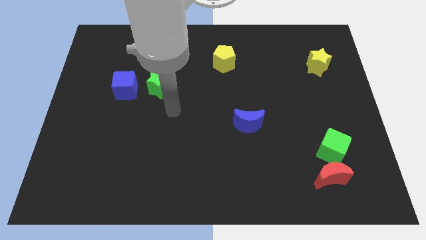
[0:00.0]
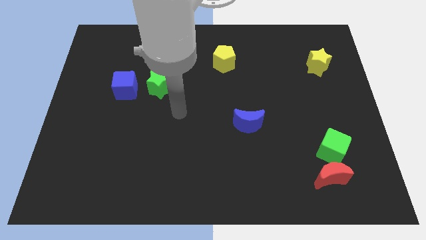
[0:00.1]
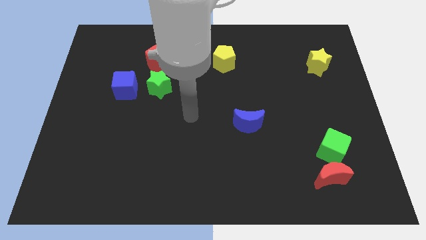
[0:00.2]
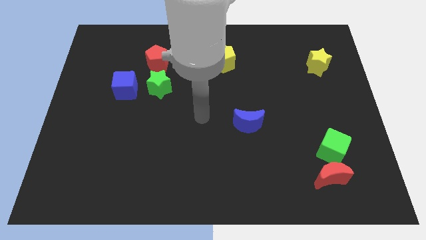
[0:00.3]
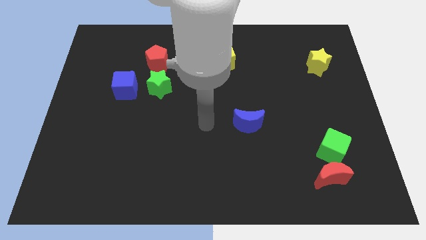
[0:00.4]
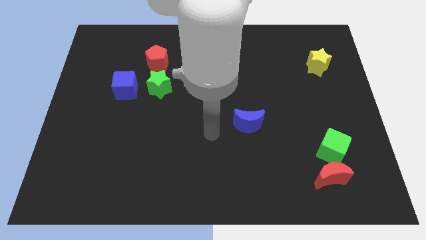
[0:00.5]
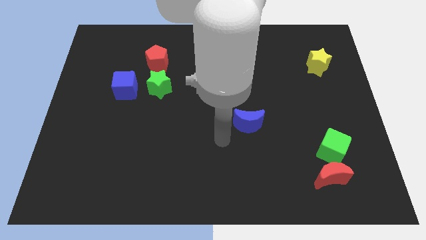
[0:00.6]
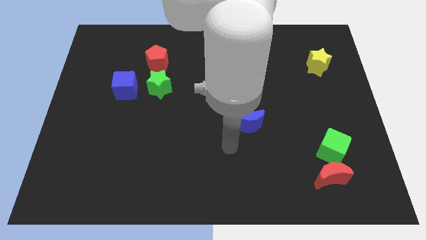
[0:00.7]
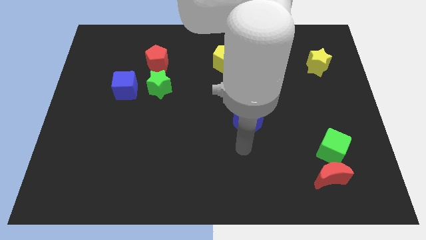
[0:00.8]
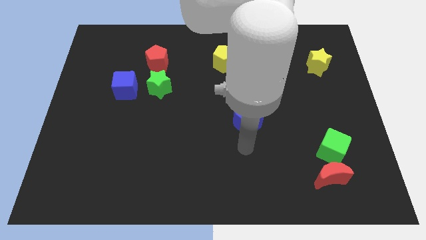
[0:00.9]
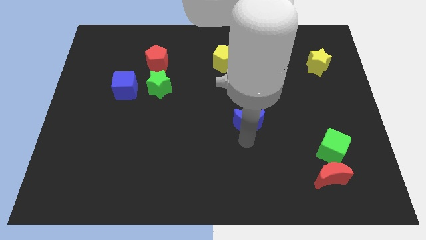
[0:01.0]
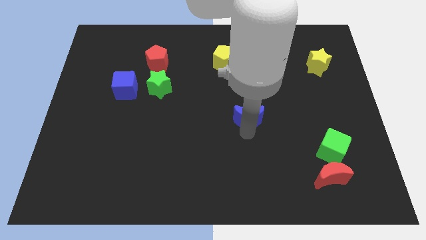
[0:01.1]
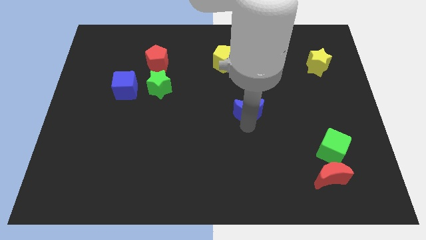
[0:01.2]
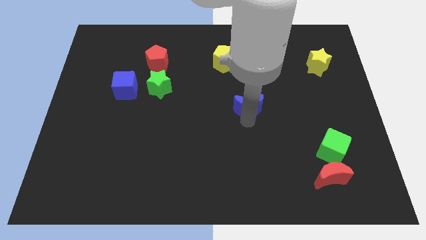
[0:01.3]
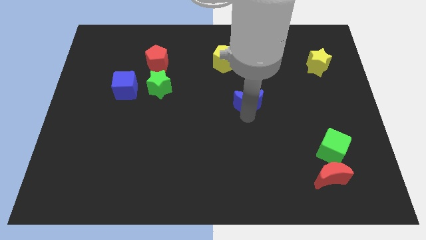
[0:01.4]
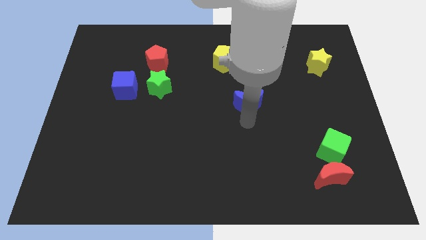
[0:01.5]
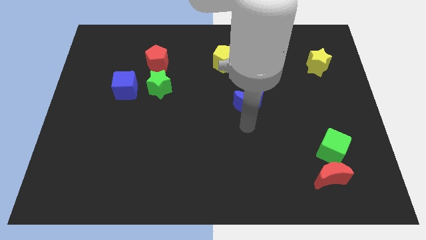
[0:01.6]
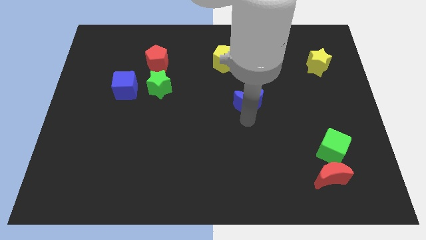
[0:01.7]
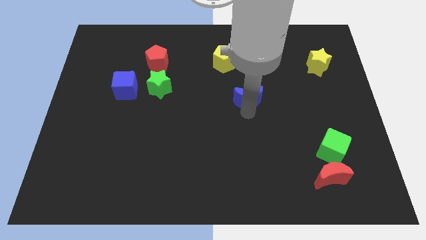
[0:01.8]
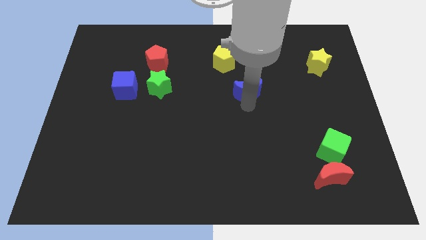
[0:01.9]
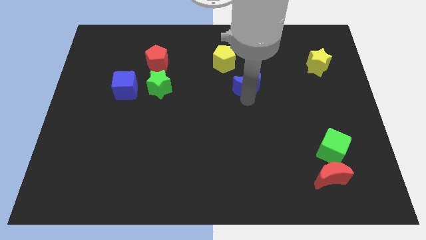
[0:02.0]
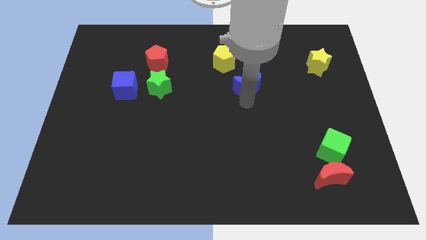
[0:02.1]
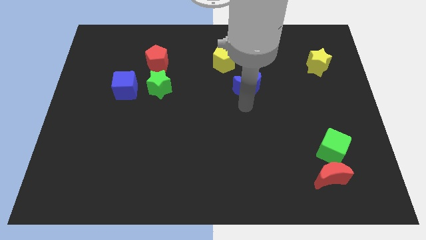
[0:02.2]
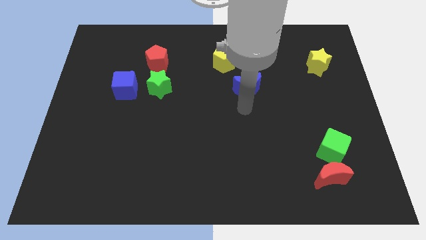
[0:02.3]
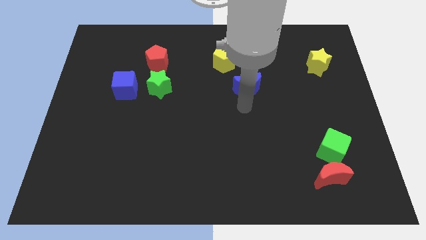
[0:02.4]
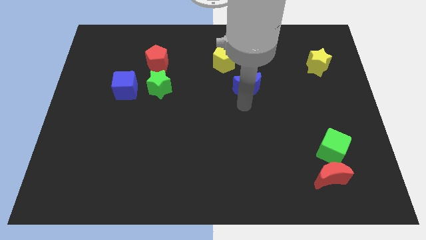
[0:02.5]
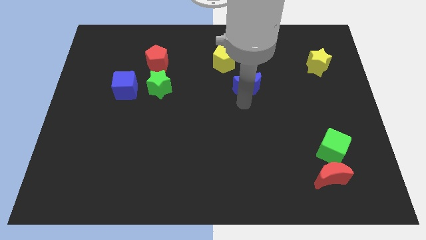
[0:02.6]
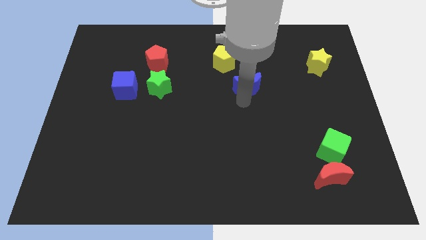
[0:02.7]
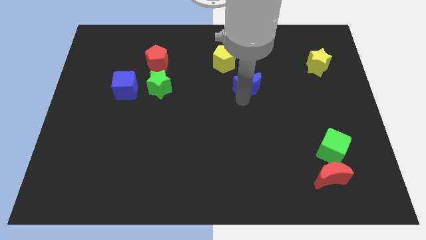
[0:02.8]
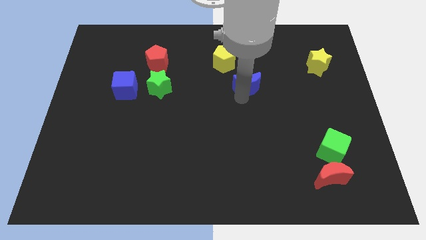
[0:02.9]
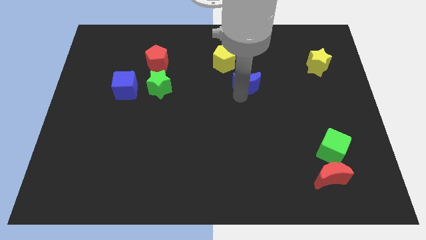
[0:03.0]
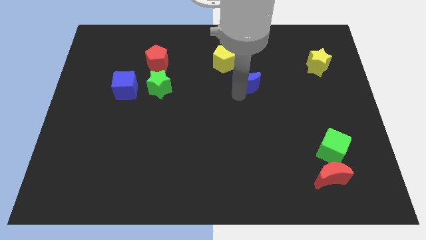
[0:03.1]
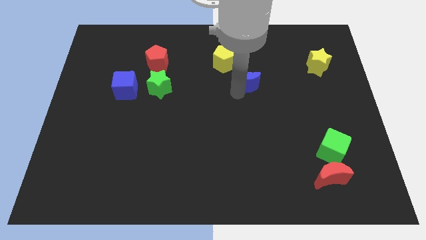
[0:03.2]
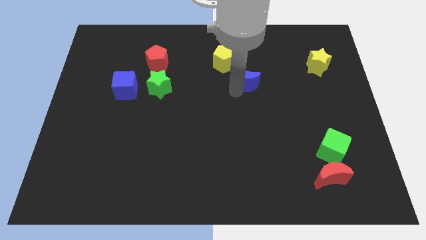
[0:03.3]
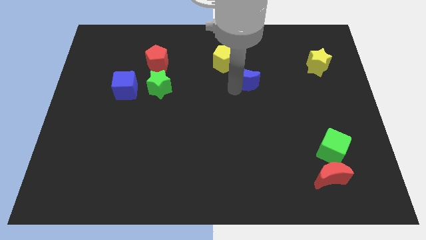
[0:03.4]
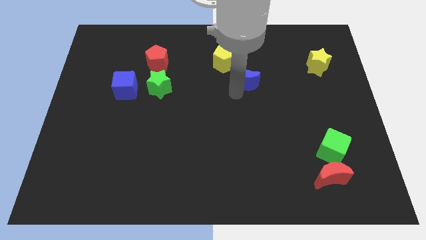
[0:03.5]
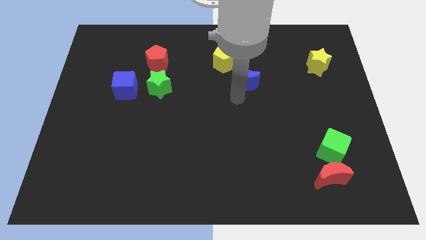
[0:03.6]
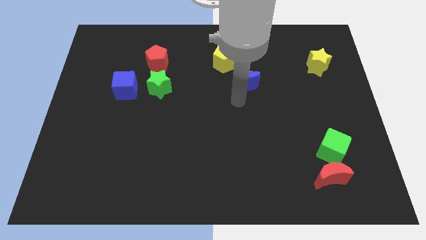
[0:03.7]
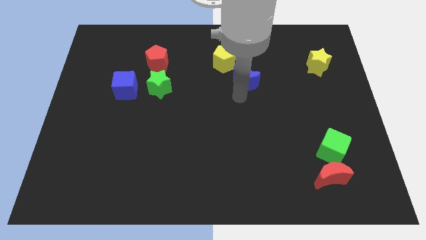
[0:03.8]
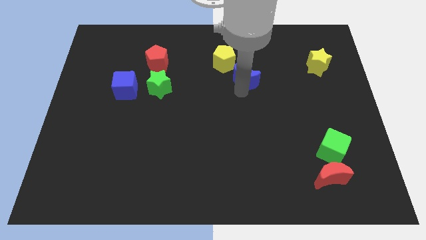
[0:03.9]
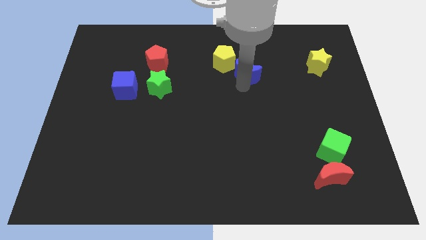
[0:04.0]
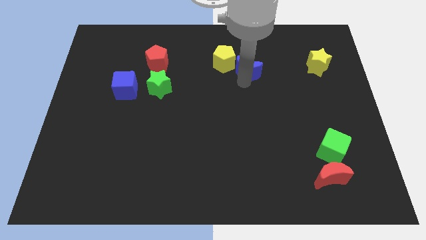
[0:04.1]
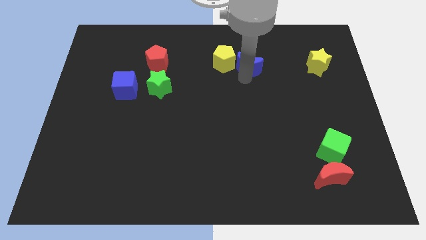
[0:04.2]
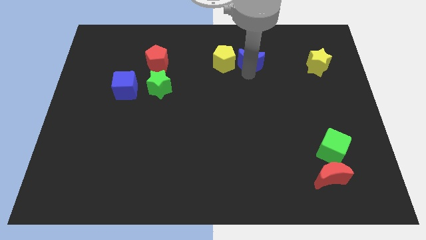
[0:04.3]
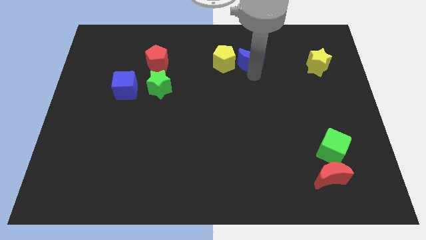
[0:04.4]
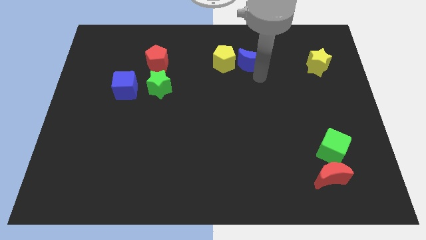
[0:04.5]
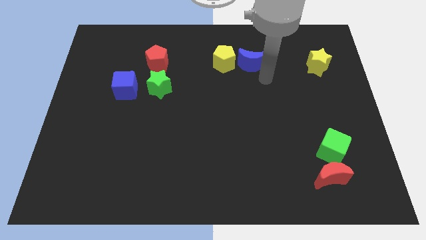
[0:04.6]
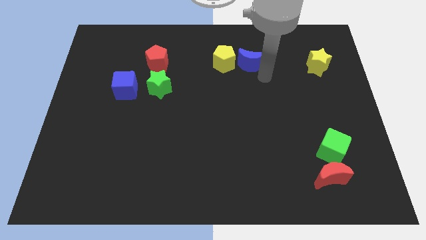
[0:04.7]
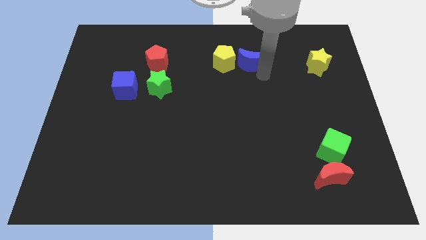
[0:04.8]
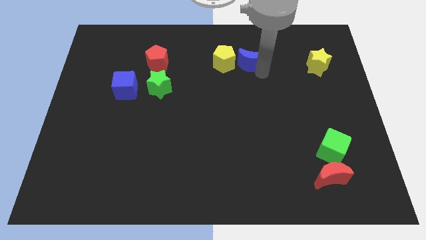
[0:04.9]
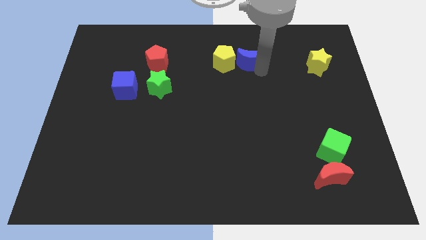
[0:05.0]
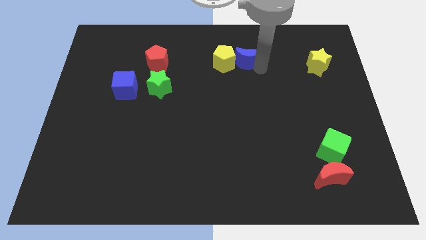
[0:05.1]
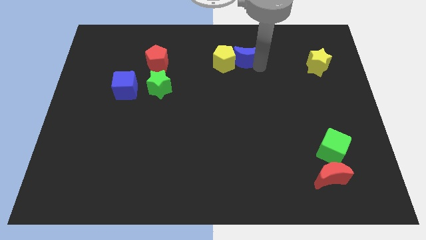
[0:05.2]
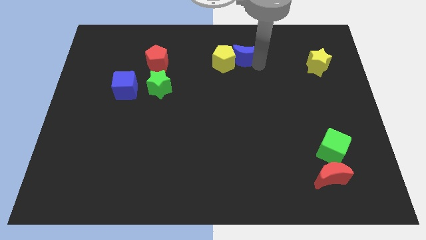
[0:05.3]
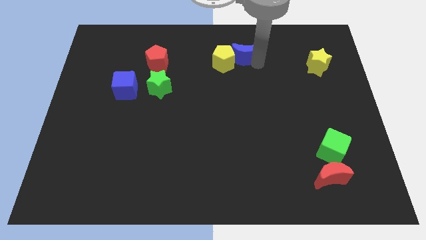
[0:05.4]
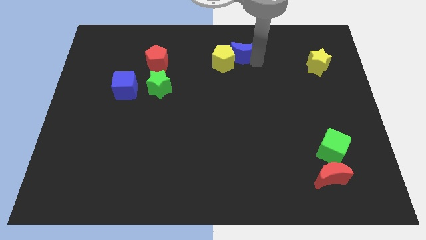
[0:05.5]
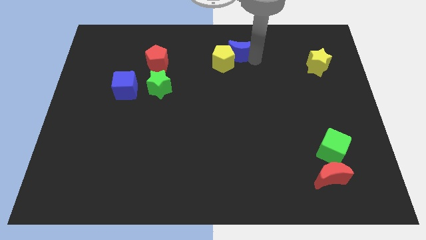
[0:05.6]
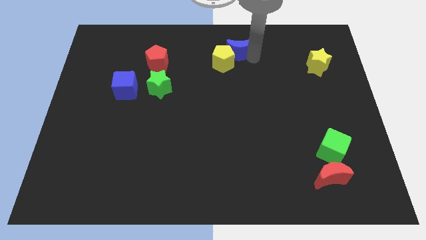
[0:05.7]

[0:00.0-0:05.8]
slide the blue moon to the top
